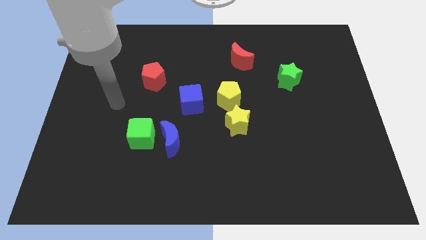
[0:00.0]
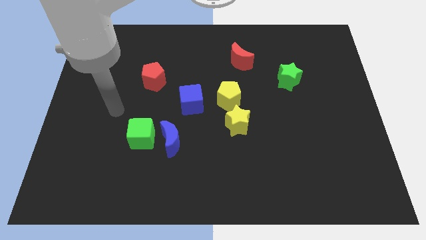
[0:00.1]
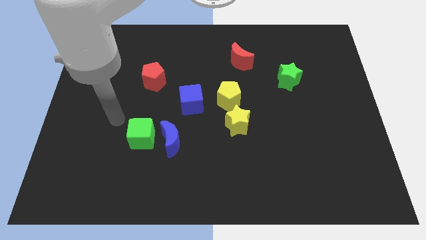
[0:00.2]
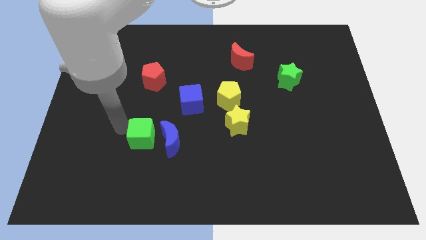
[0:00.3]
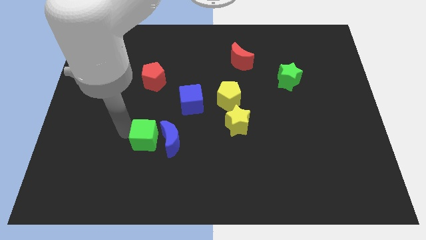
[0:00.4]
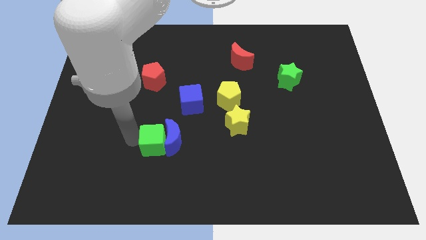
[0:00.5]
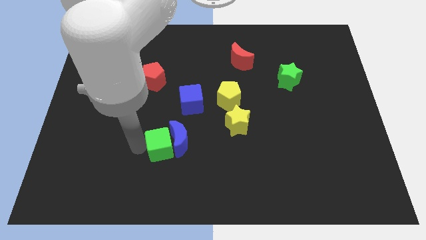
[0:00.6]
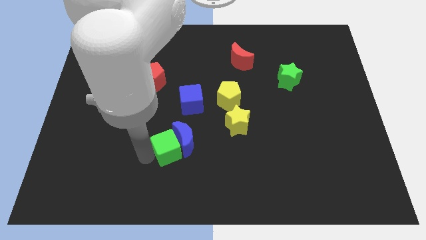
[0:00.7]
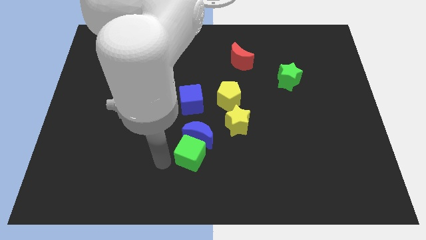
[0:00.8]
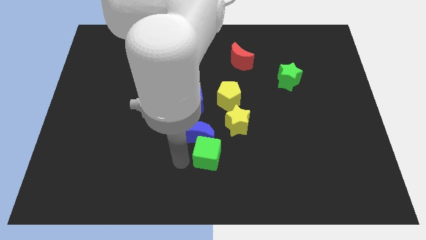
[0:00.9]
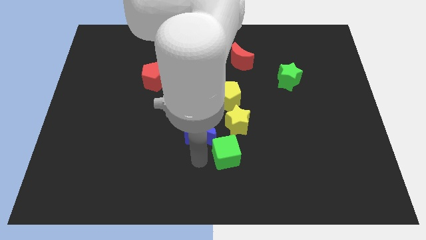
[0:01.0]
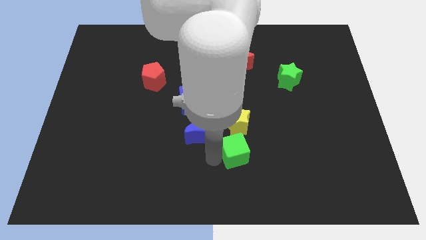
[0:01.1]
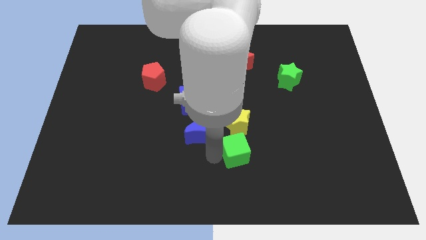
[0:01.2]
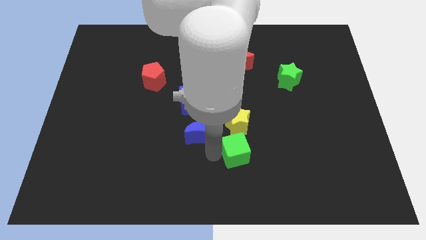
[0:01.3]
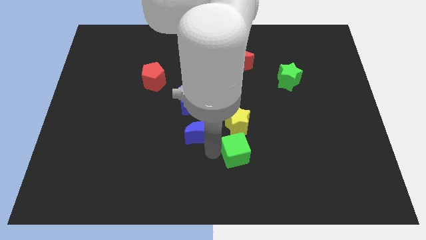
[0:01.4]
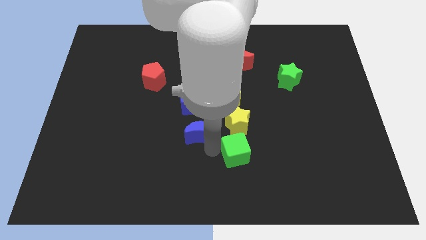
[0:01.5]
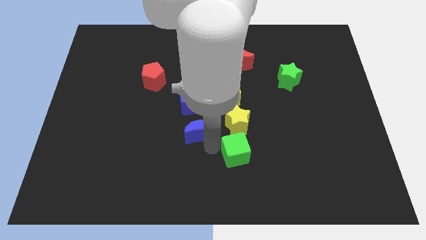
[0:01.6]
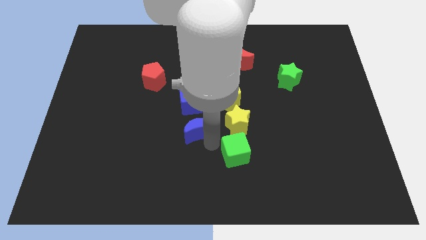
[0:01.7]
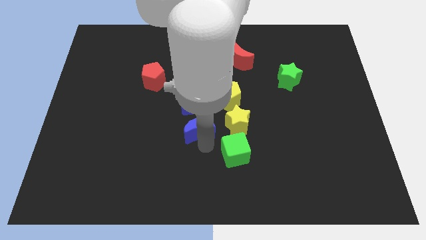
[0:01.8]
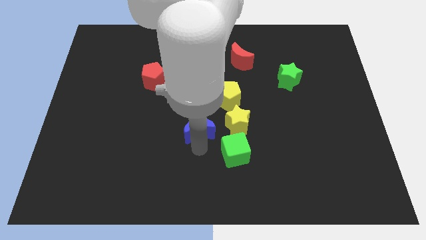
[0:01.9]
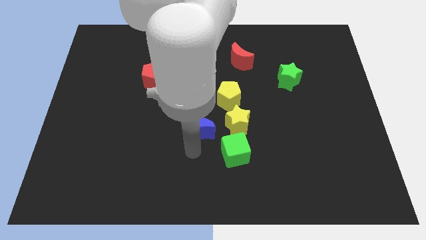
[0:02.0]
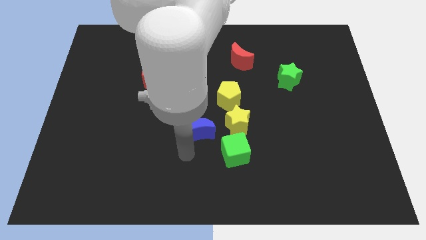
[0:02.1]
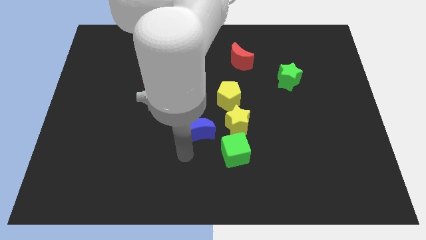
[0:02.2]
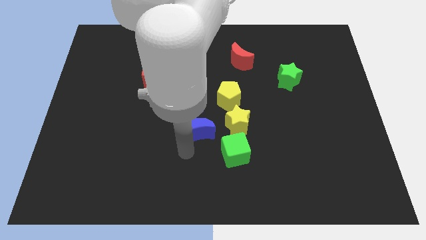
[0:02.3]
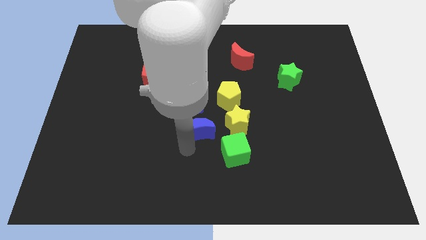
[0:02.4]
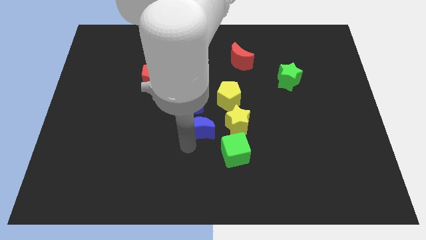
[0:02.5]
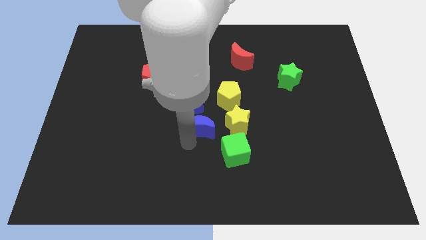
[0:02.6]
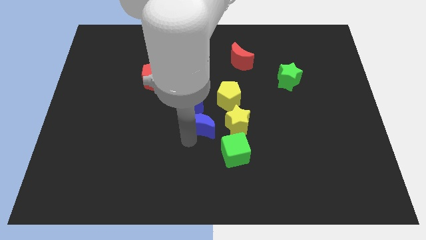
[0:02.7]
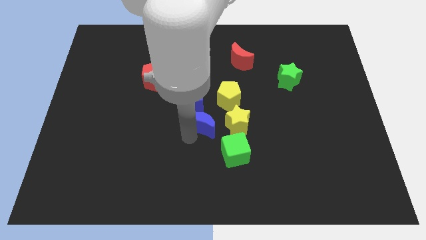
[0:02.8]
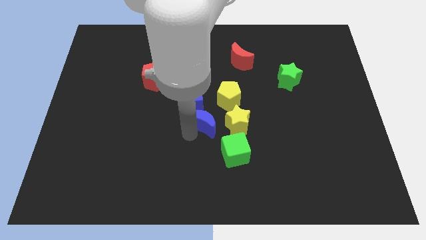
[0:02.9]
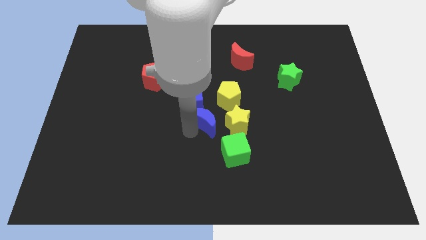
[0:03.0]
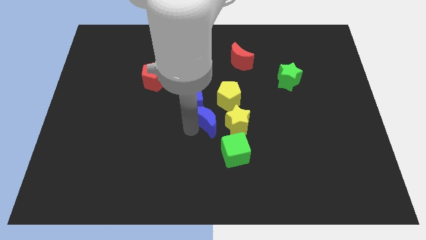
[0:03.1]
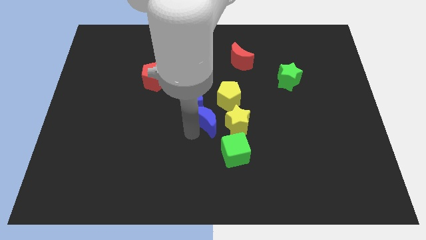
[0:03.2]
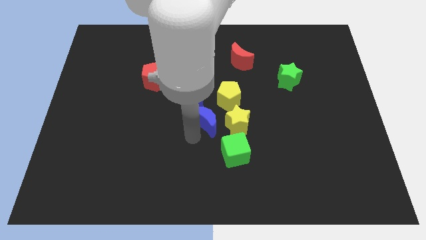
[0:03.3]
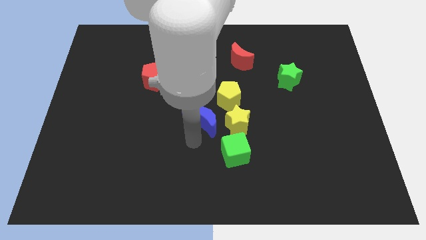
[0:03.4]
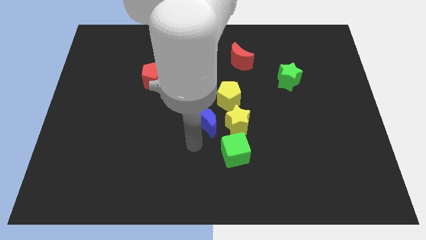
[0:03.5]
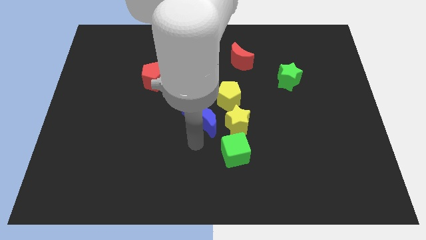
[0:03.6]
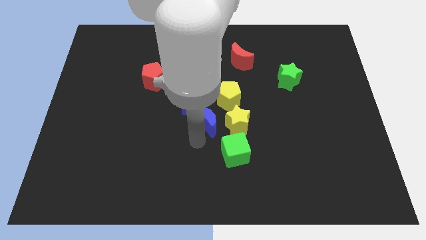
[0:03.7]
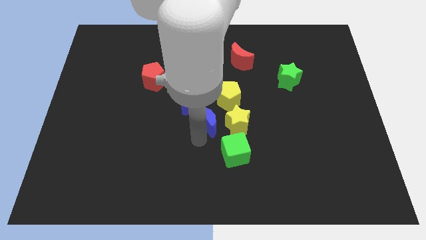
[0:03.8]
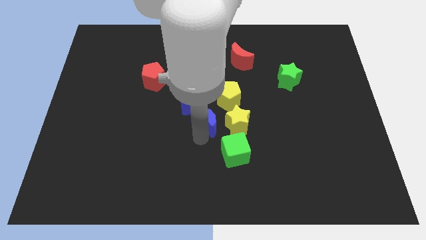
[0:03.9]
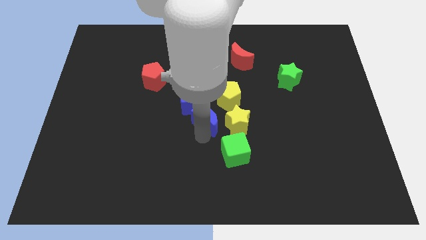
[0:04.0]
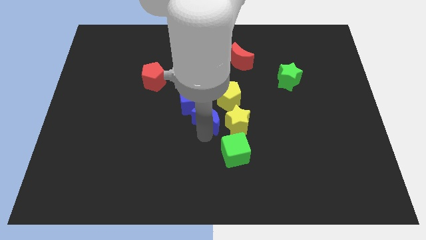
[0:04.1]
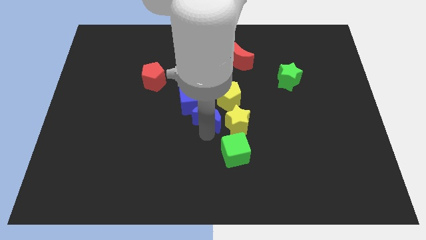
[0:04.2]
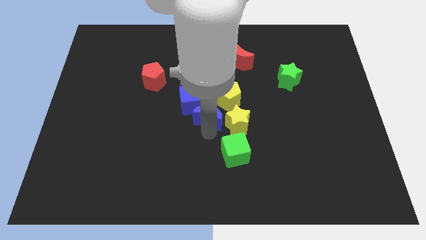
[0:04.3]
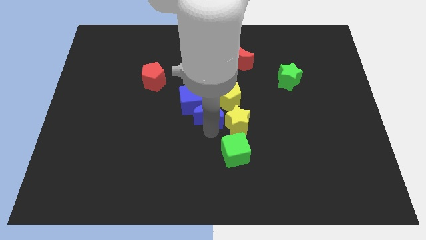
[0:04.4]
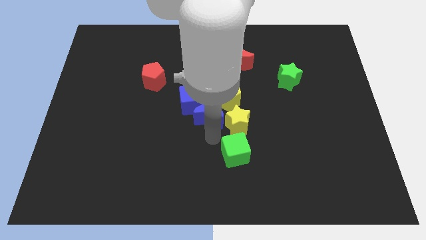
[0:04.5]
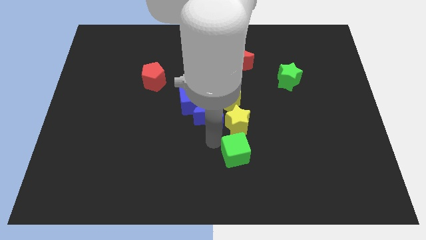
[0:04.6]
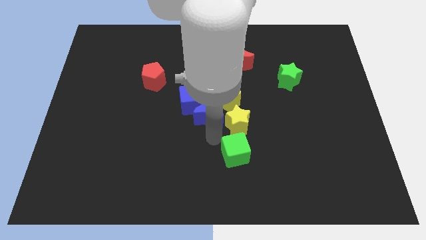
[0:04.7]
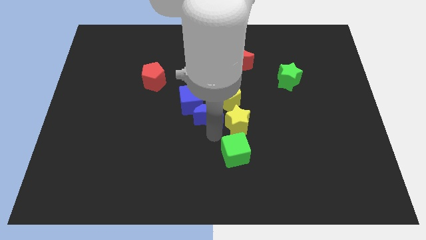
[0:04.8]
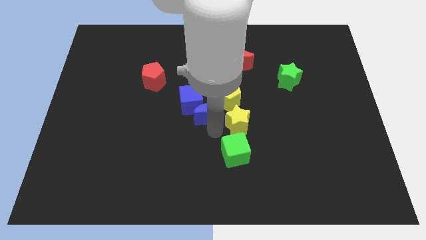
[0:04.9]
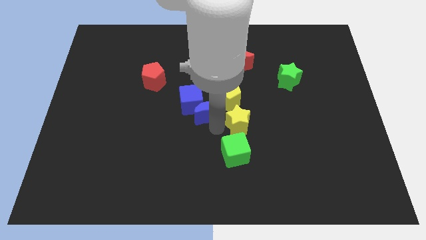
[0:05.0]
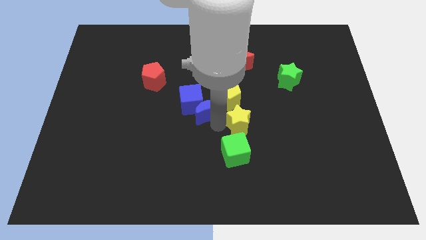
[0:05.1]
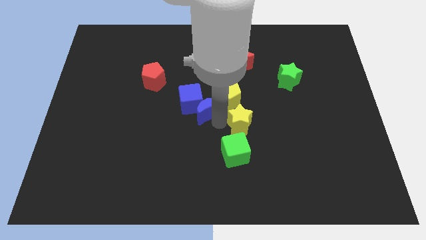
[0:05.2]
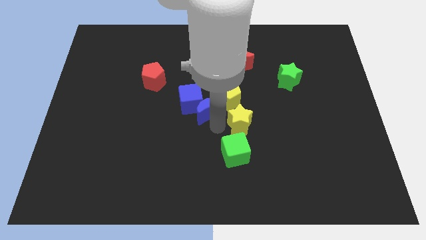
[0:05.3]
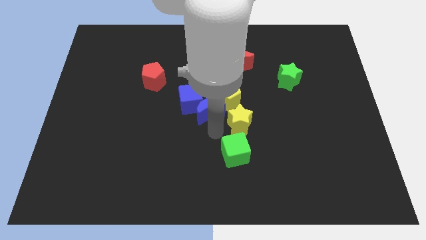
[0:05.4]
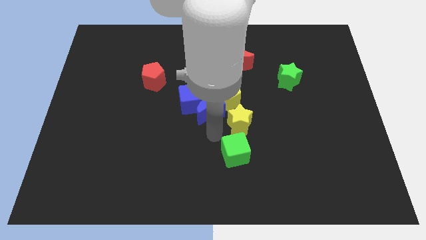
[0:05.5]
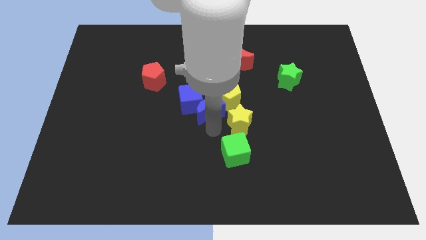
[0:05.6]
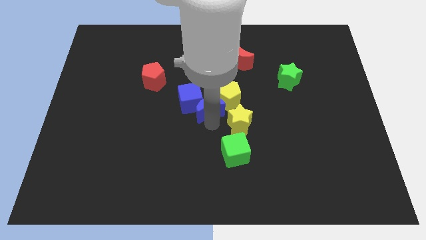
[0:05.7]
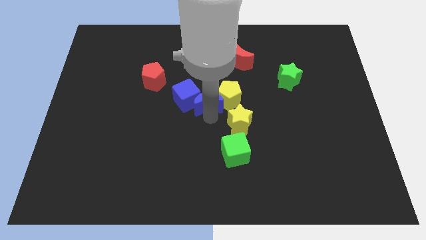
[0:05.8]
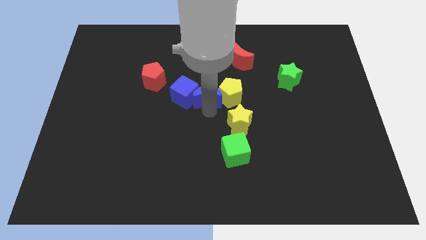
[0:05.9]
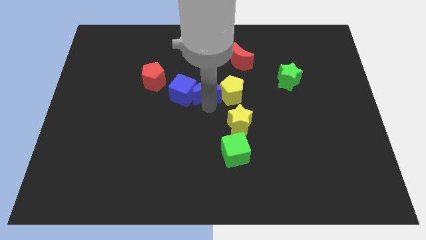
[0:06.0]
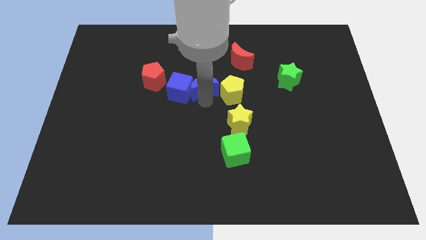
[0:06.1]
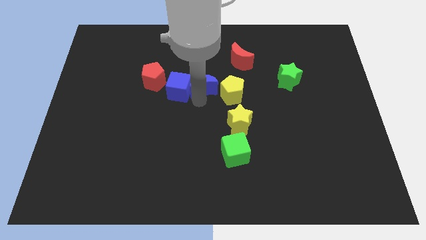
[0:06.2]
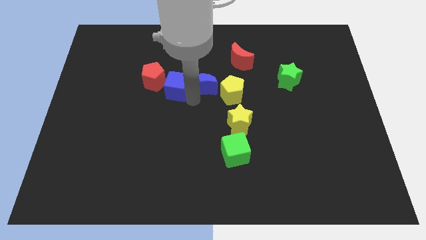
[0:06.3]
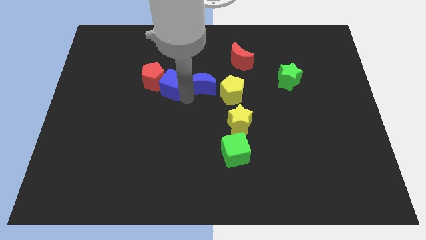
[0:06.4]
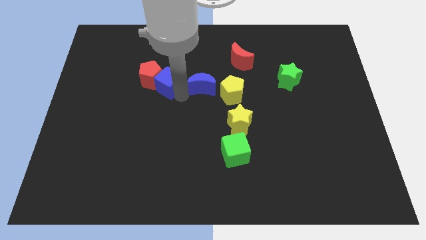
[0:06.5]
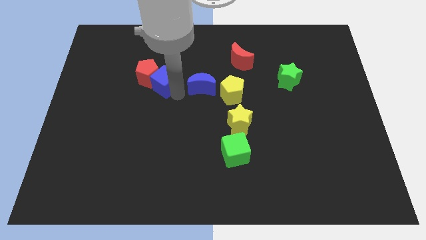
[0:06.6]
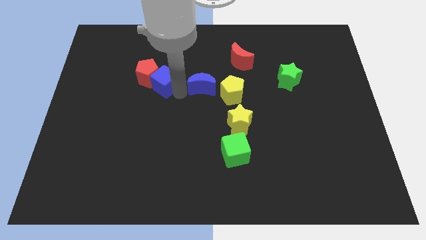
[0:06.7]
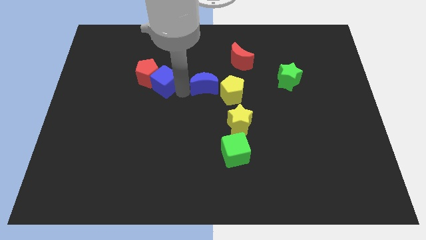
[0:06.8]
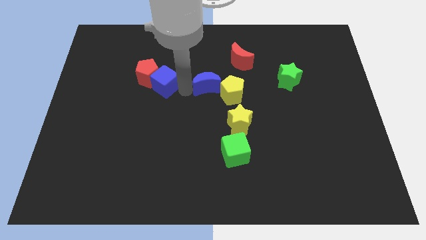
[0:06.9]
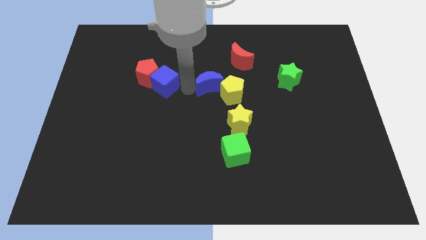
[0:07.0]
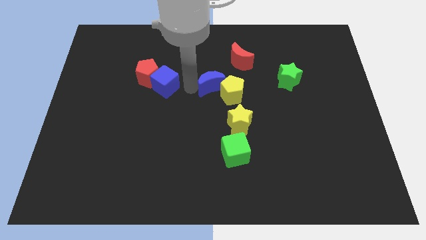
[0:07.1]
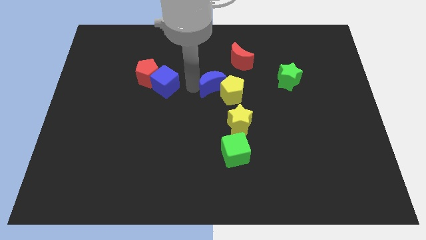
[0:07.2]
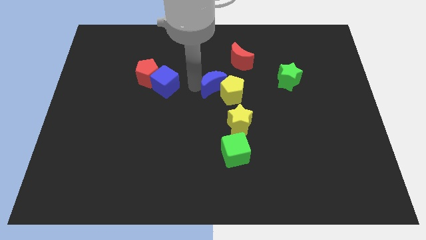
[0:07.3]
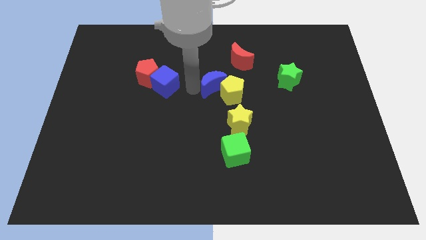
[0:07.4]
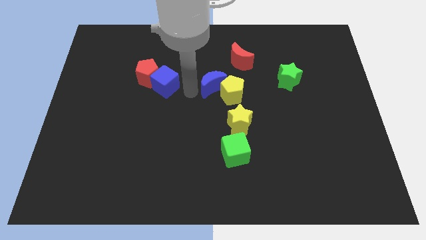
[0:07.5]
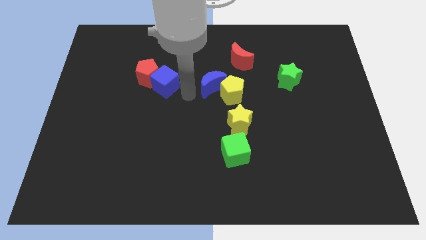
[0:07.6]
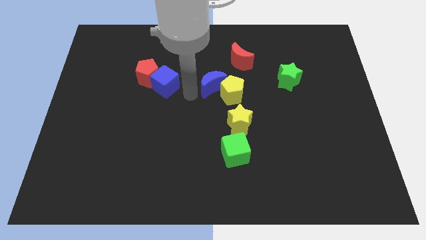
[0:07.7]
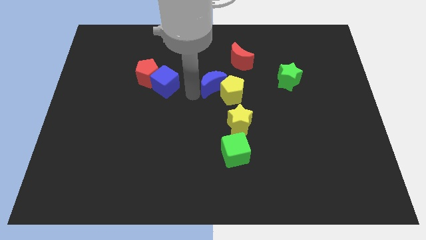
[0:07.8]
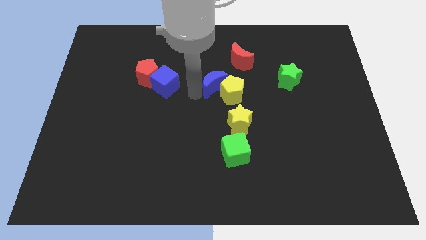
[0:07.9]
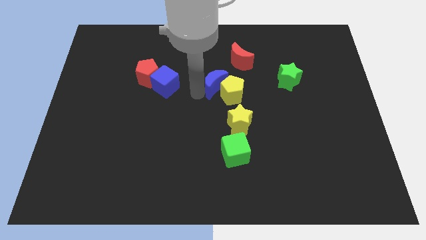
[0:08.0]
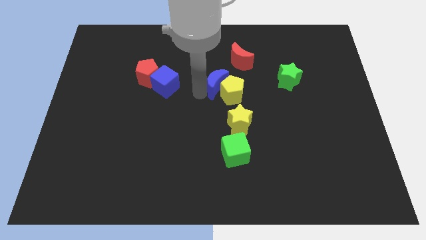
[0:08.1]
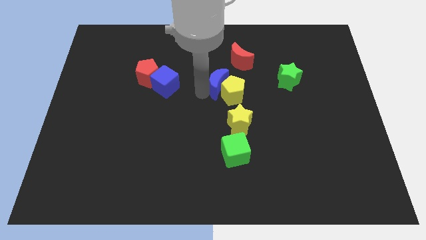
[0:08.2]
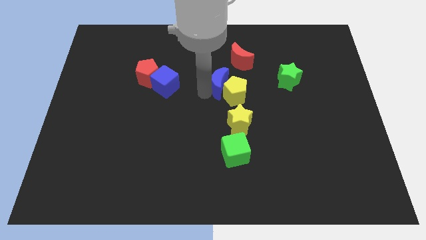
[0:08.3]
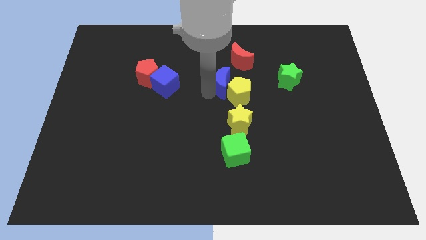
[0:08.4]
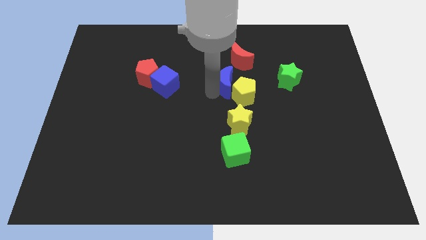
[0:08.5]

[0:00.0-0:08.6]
slide the blue moon upwards and right
